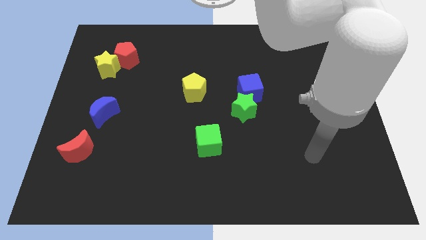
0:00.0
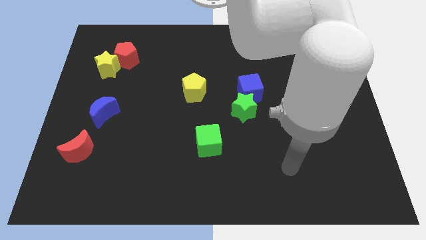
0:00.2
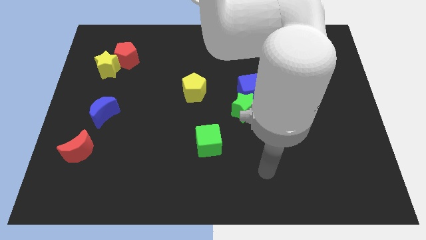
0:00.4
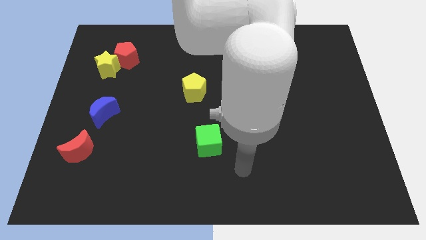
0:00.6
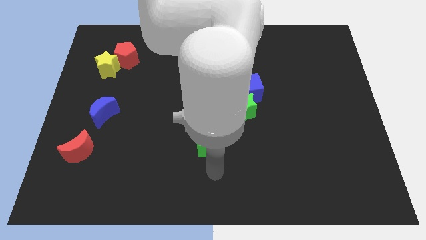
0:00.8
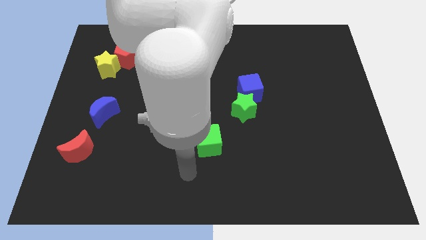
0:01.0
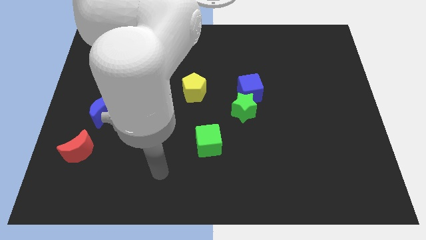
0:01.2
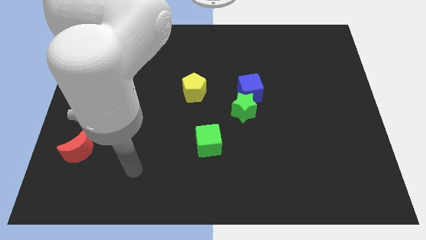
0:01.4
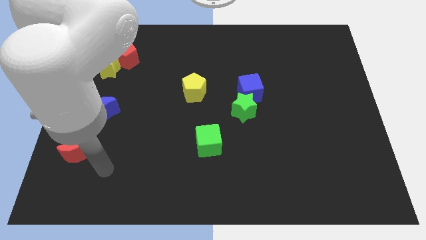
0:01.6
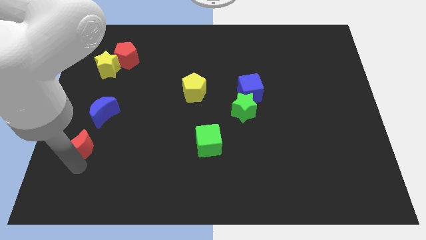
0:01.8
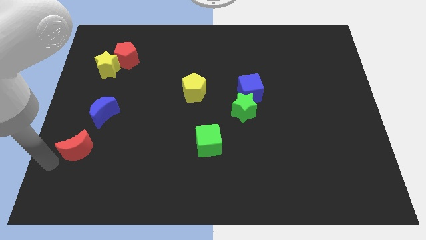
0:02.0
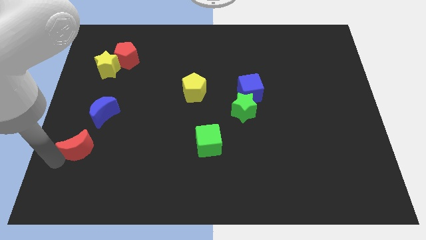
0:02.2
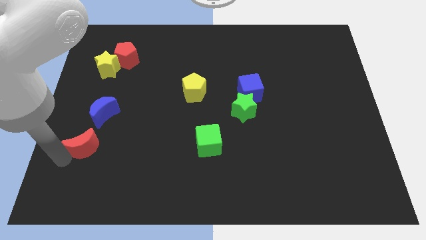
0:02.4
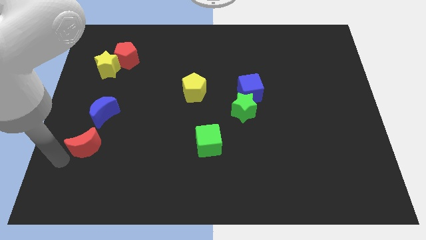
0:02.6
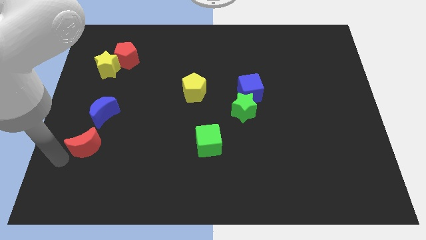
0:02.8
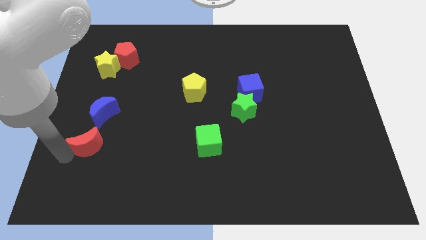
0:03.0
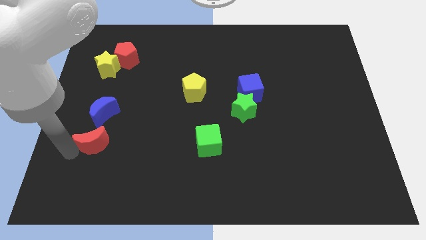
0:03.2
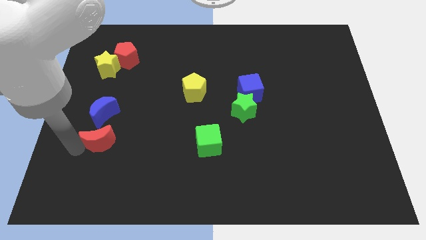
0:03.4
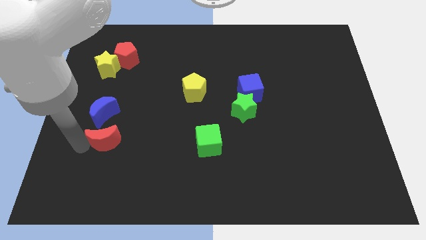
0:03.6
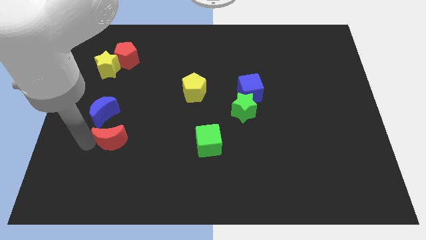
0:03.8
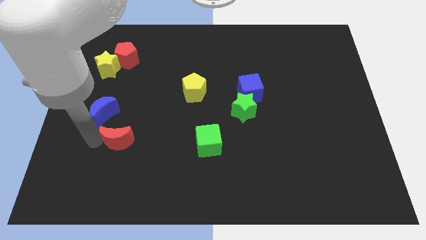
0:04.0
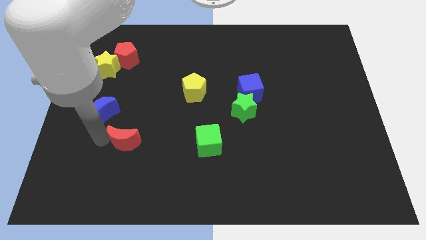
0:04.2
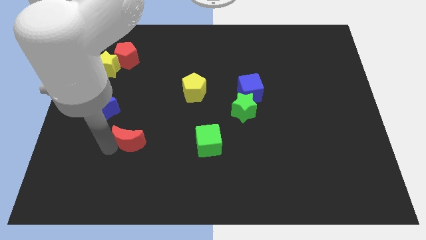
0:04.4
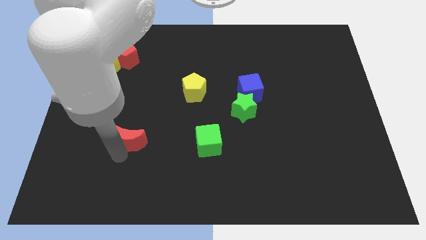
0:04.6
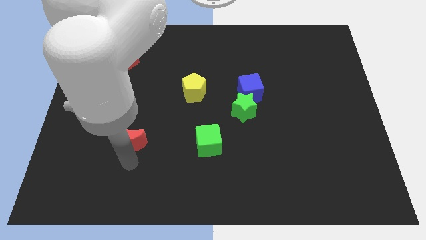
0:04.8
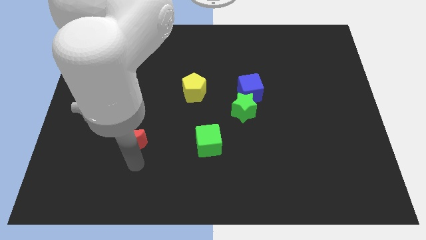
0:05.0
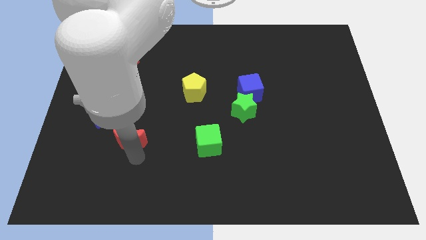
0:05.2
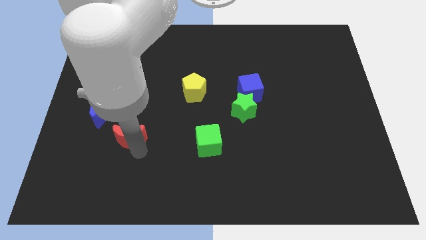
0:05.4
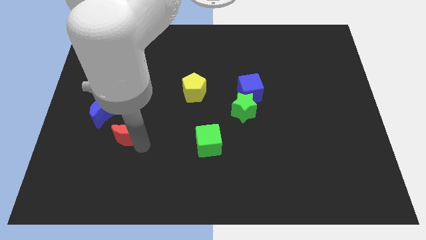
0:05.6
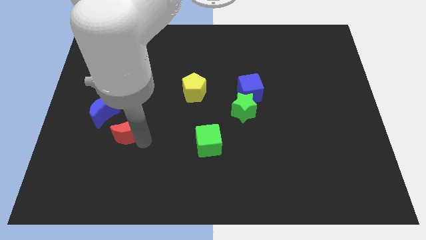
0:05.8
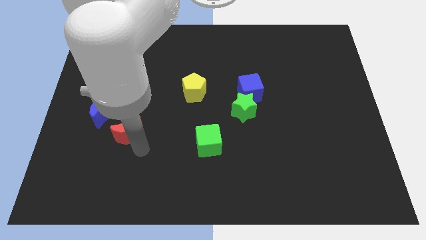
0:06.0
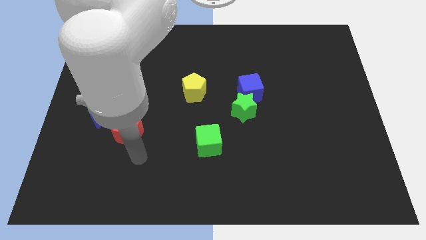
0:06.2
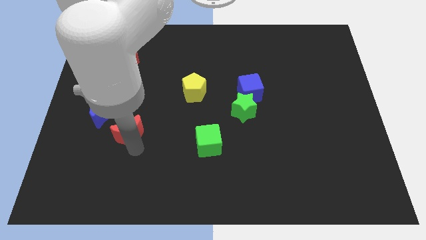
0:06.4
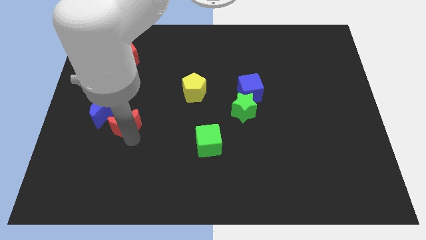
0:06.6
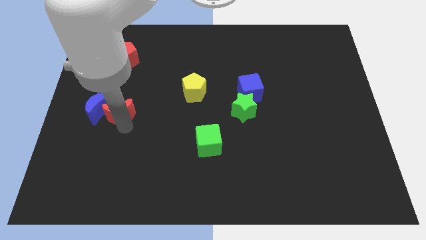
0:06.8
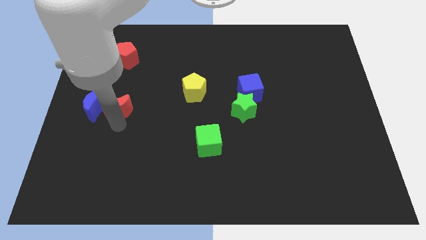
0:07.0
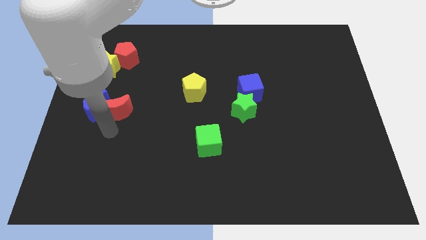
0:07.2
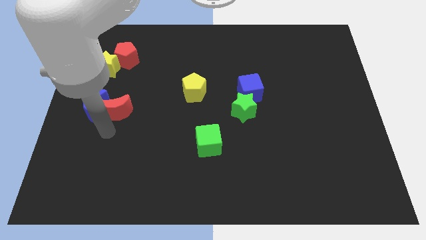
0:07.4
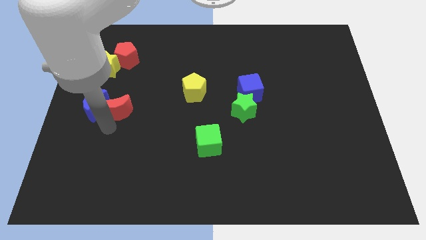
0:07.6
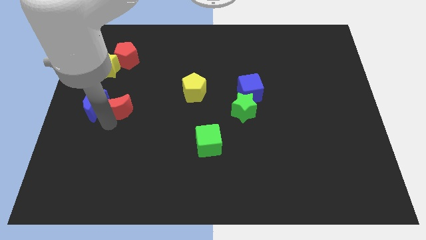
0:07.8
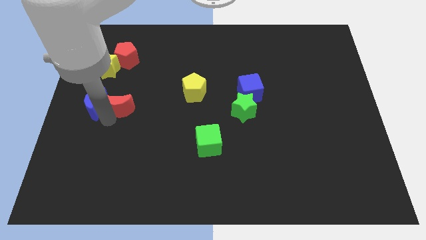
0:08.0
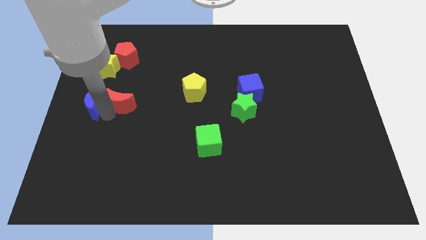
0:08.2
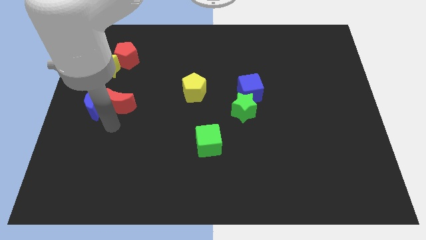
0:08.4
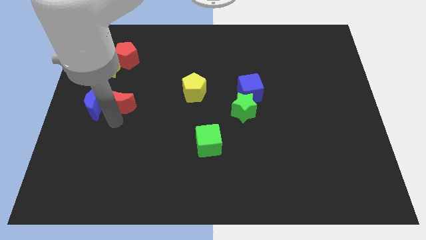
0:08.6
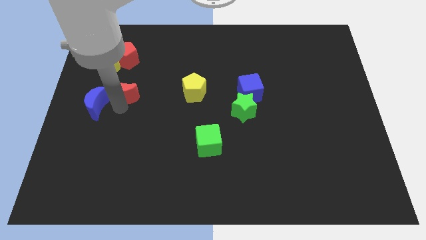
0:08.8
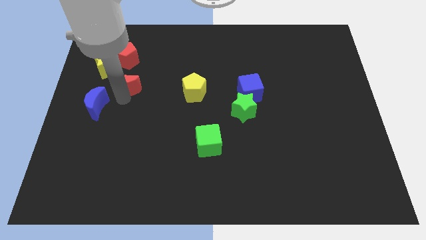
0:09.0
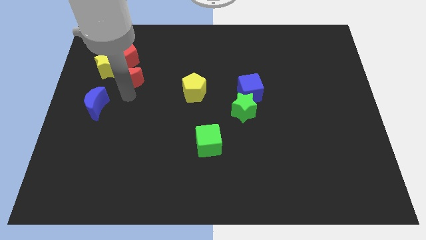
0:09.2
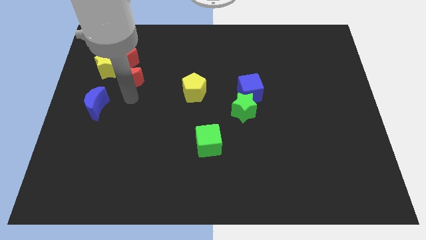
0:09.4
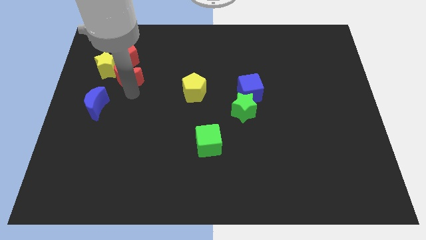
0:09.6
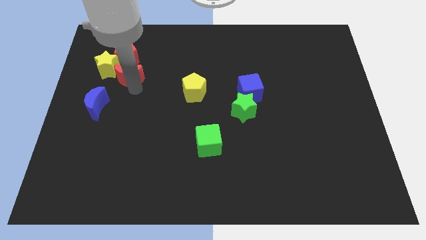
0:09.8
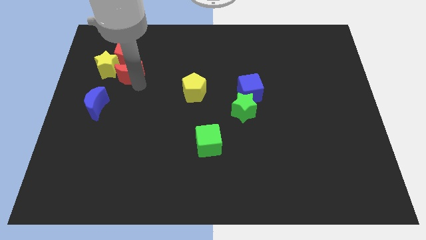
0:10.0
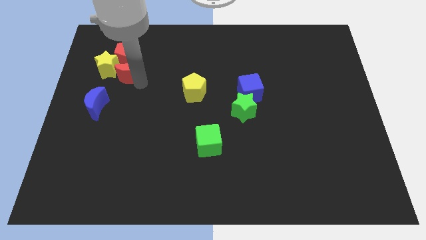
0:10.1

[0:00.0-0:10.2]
move the red moon close to the red pentagon

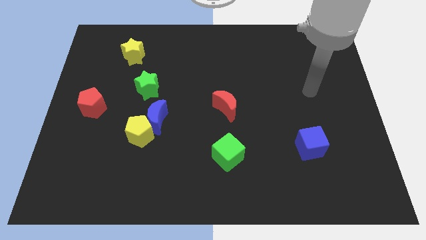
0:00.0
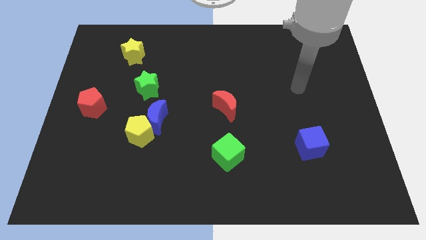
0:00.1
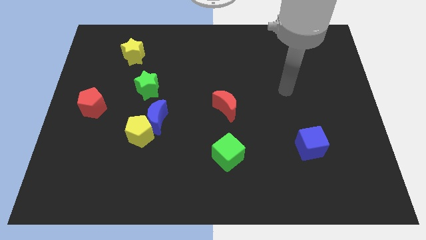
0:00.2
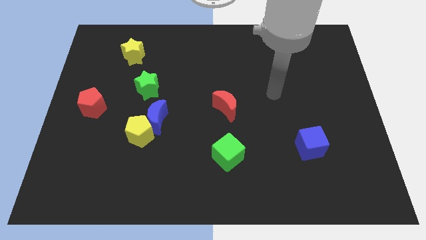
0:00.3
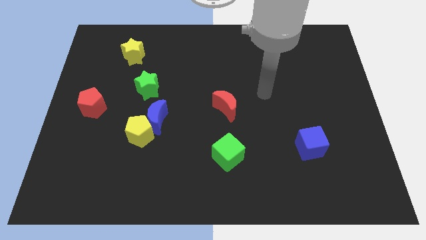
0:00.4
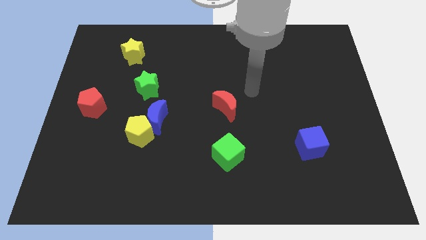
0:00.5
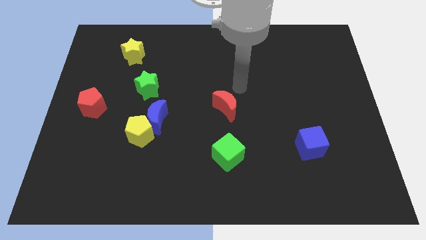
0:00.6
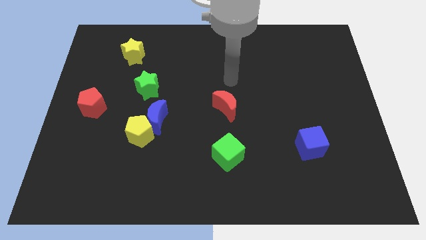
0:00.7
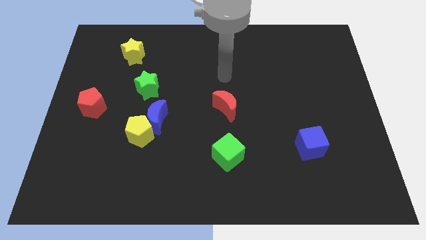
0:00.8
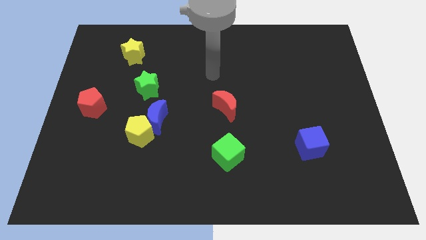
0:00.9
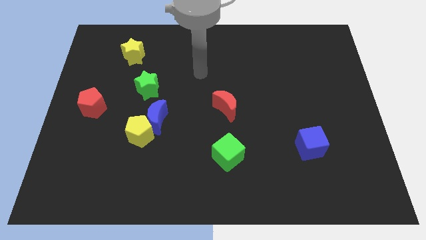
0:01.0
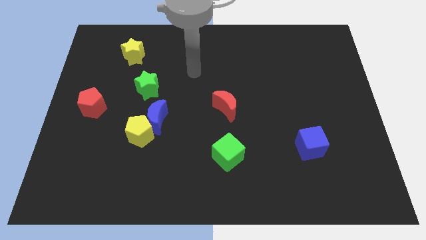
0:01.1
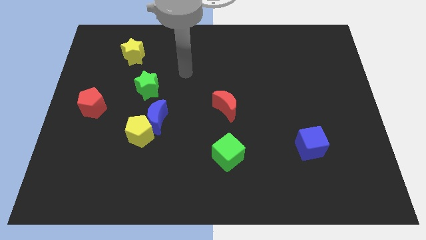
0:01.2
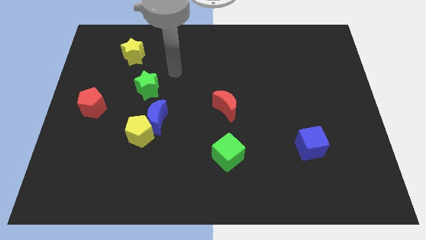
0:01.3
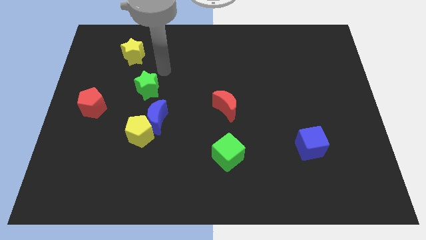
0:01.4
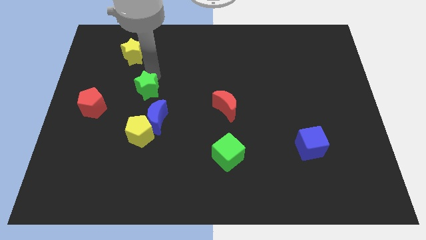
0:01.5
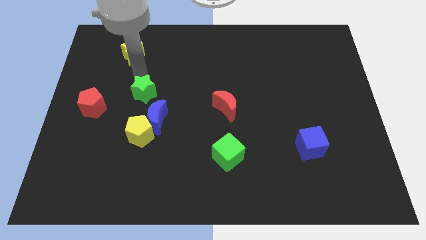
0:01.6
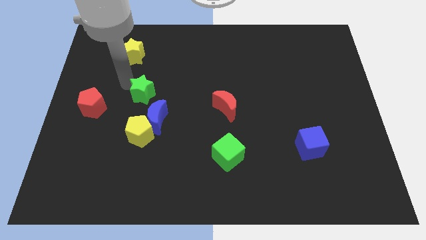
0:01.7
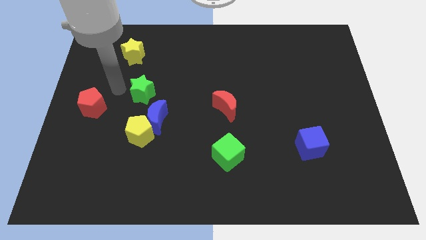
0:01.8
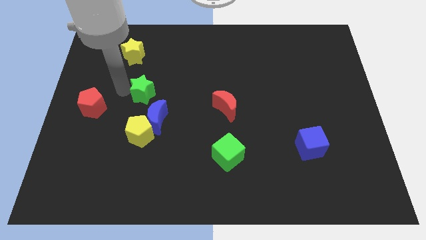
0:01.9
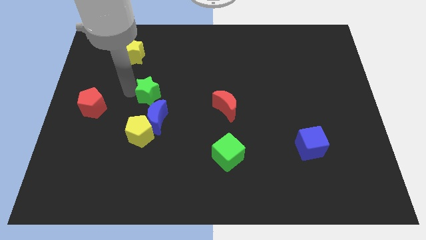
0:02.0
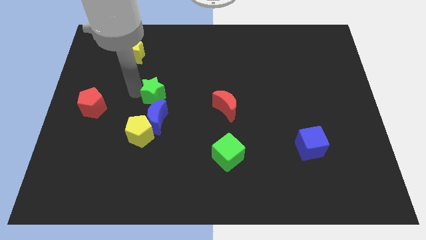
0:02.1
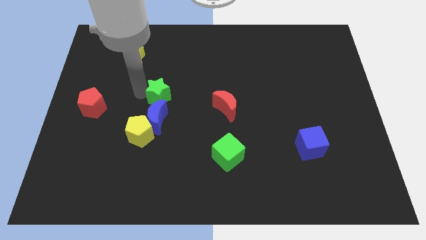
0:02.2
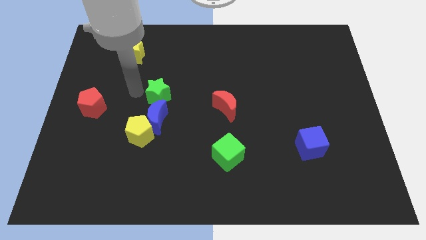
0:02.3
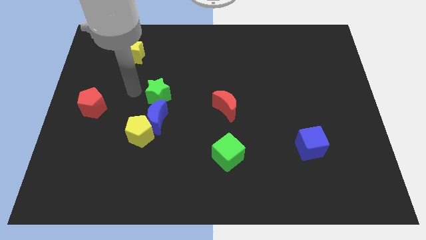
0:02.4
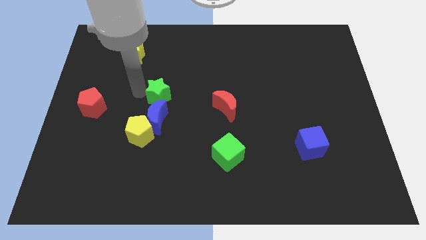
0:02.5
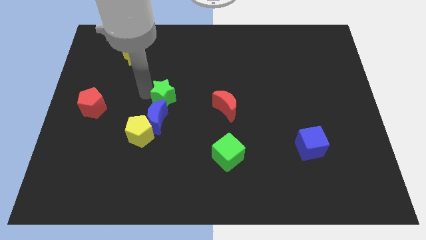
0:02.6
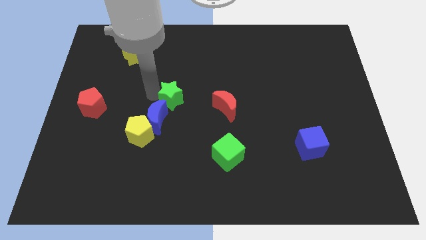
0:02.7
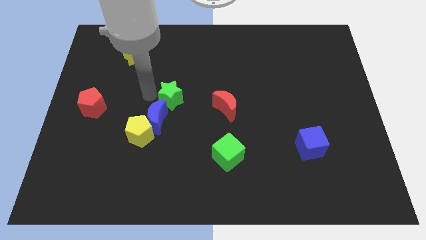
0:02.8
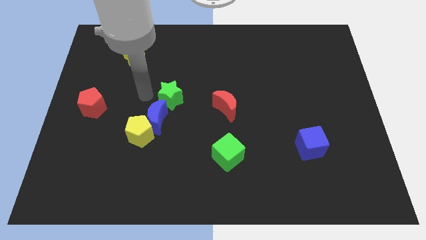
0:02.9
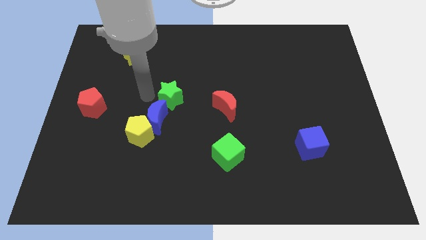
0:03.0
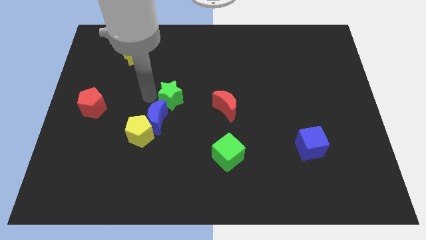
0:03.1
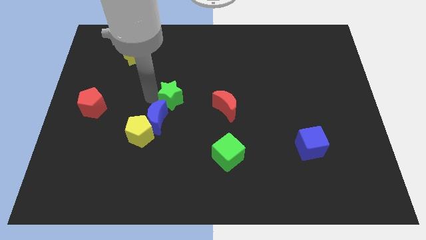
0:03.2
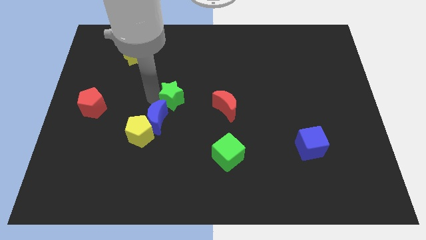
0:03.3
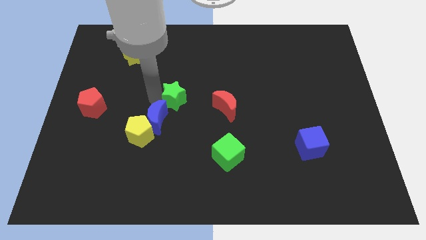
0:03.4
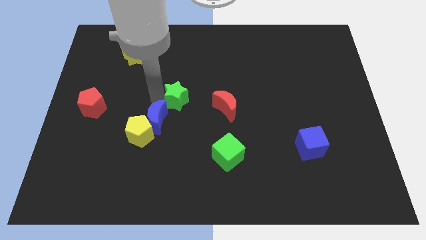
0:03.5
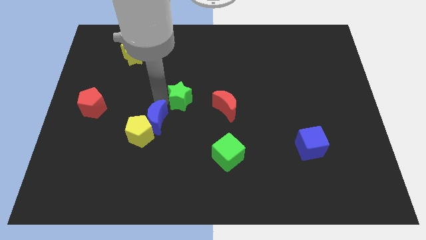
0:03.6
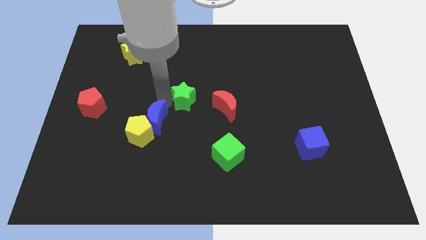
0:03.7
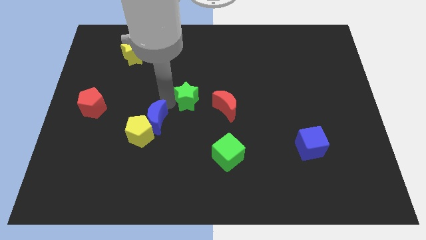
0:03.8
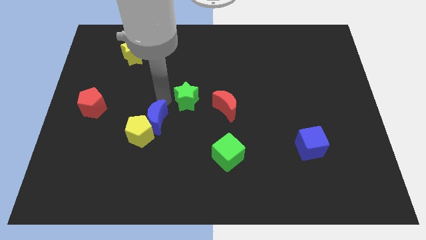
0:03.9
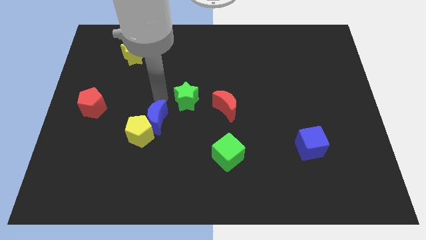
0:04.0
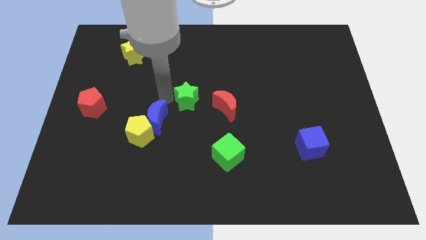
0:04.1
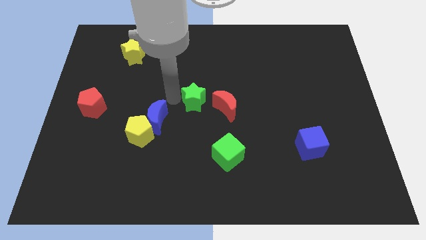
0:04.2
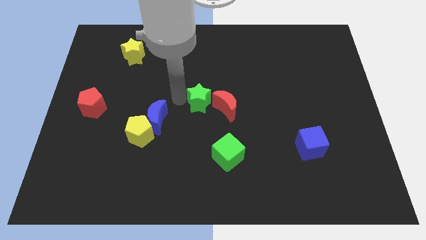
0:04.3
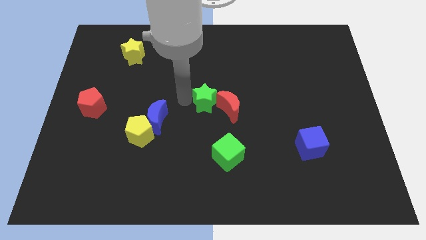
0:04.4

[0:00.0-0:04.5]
slide the green star to the red moon
